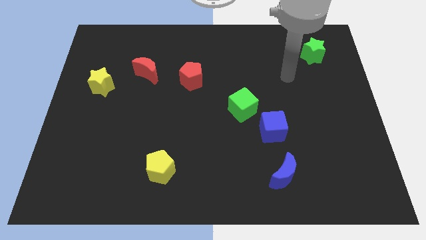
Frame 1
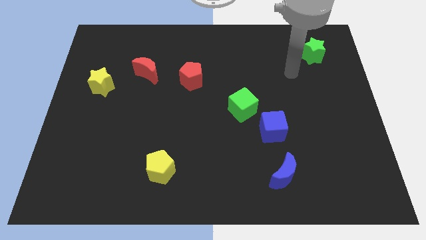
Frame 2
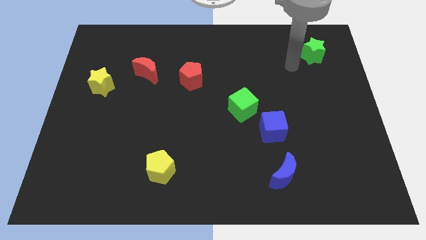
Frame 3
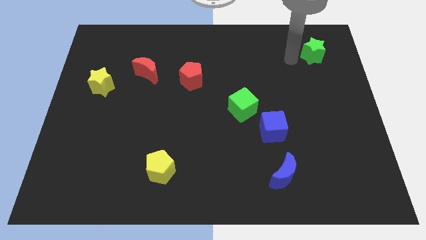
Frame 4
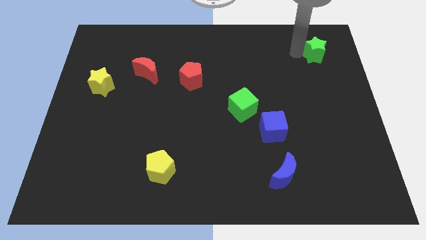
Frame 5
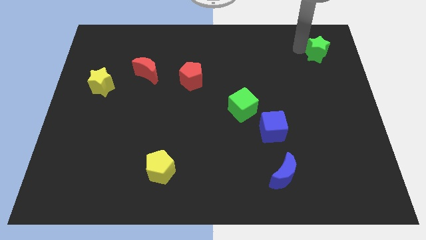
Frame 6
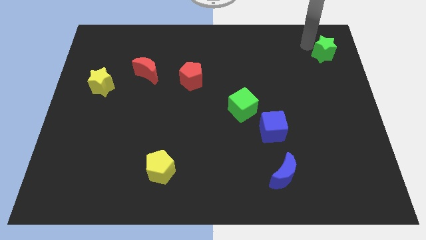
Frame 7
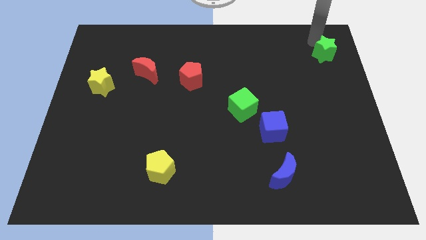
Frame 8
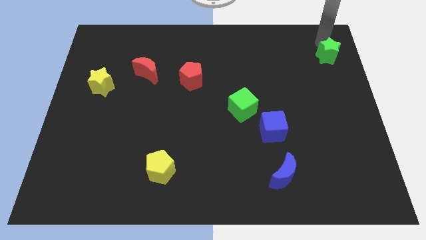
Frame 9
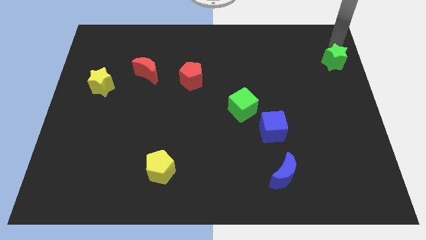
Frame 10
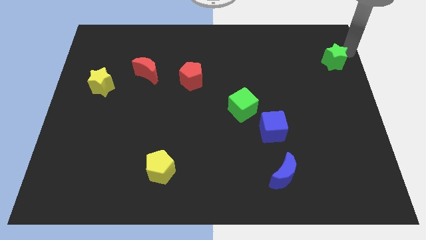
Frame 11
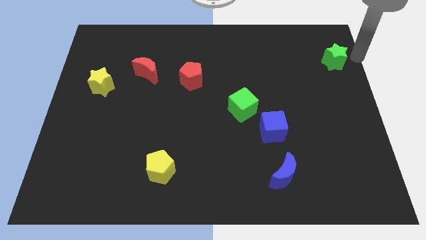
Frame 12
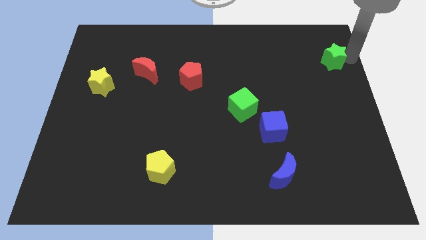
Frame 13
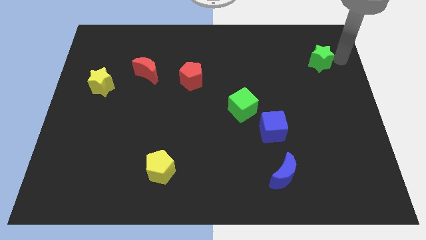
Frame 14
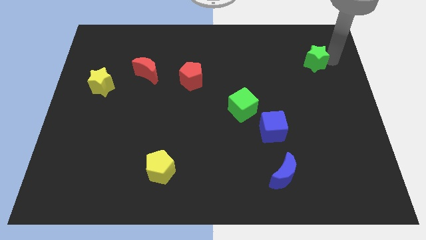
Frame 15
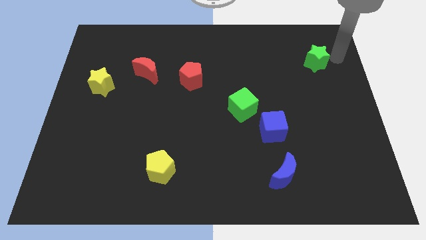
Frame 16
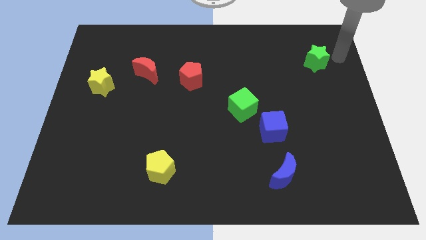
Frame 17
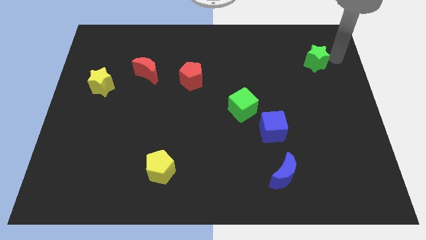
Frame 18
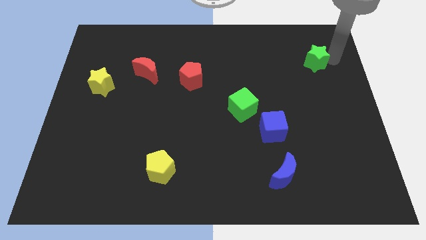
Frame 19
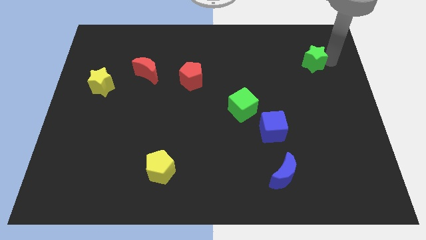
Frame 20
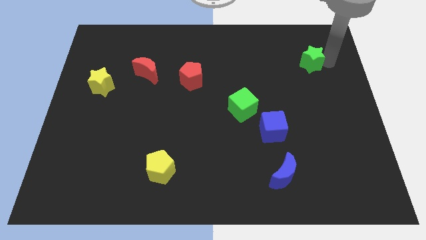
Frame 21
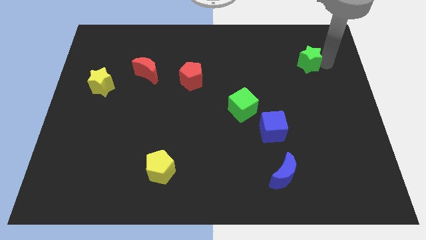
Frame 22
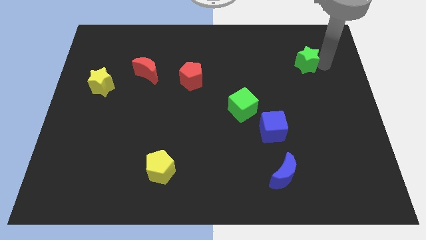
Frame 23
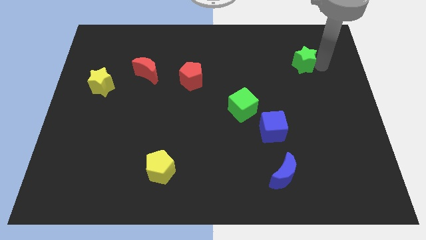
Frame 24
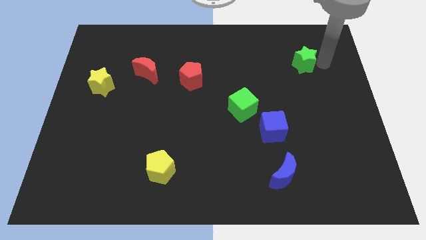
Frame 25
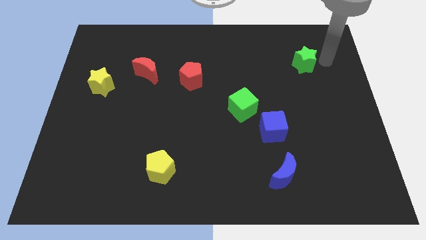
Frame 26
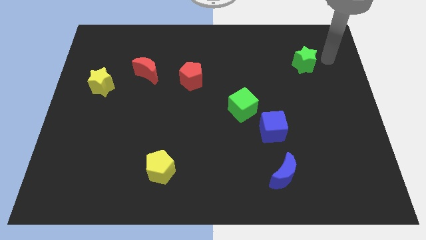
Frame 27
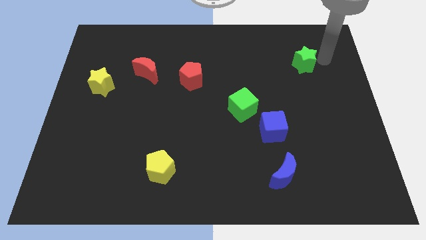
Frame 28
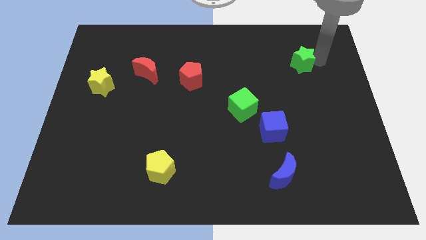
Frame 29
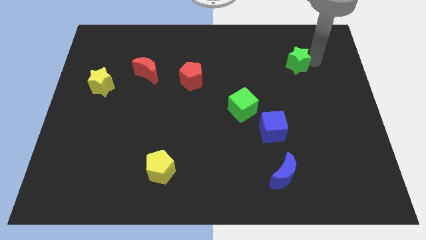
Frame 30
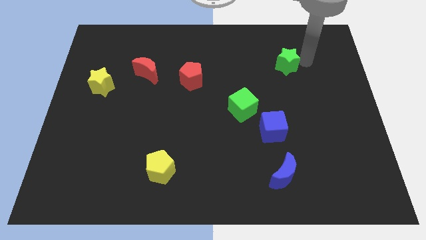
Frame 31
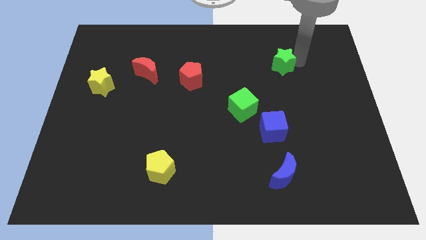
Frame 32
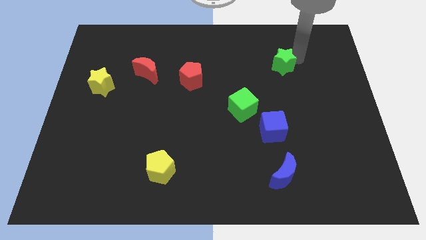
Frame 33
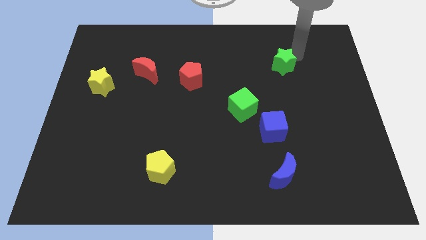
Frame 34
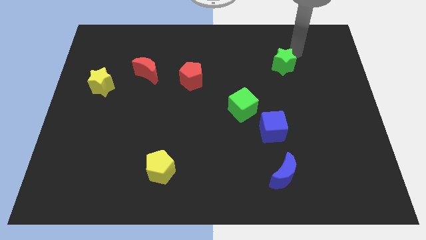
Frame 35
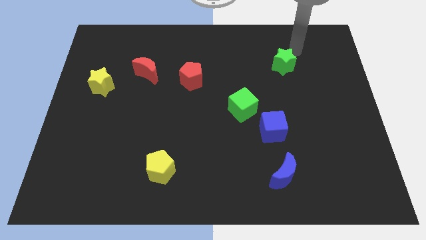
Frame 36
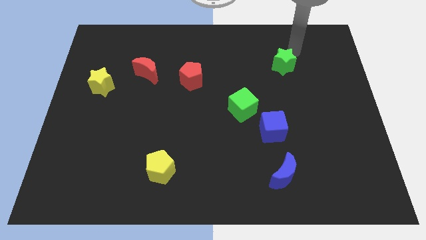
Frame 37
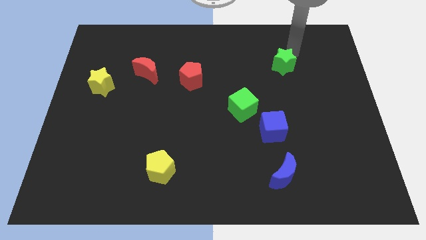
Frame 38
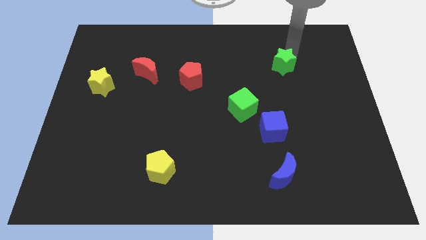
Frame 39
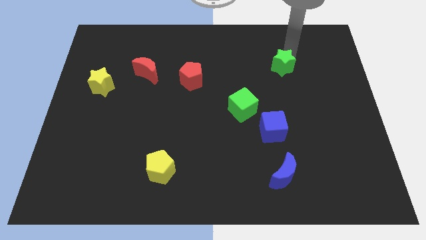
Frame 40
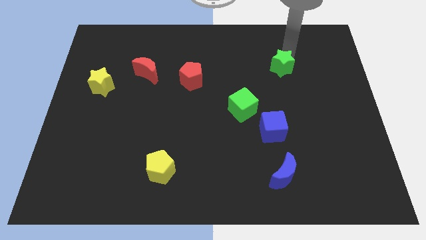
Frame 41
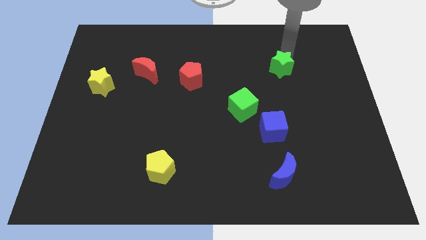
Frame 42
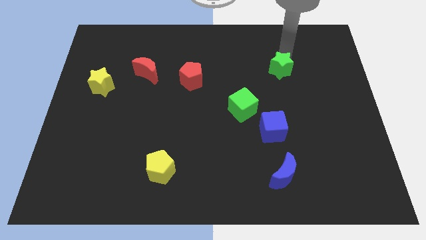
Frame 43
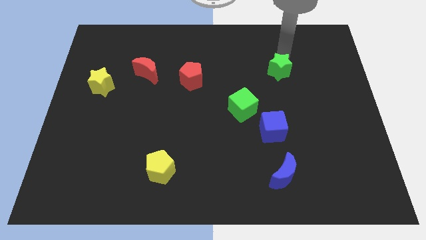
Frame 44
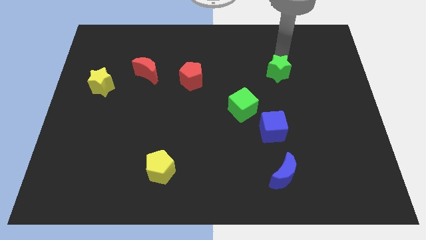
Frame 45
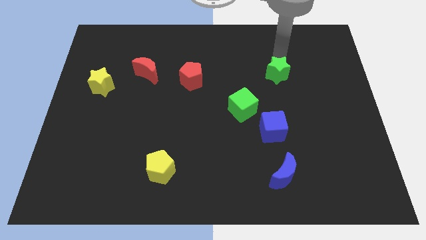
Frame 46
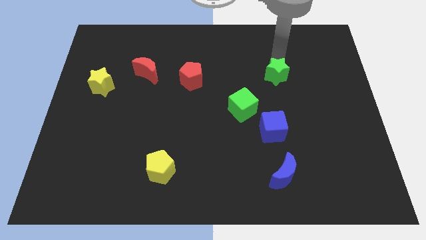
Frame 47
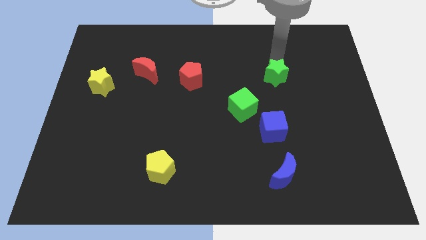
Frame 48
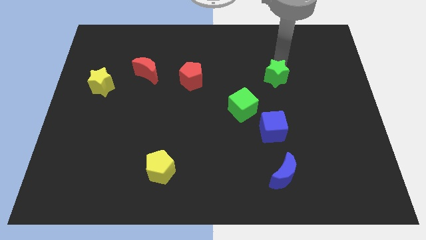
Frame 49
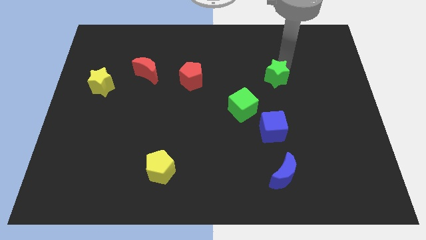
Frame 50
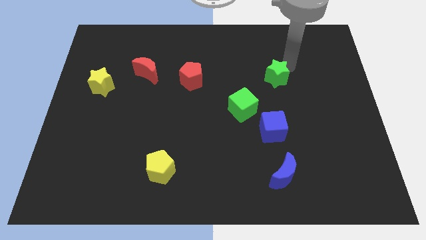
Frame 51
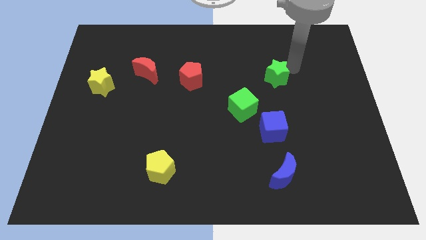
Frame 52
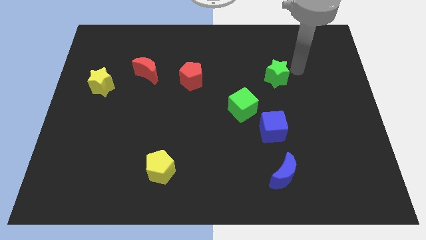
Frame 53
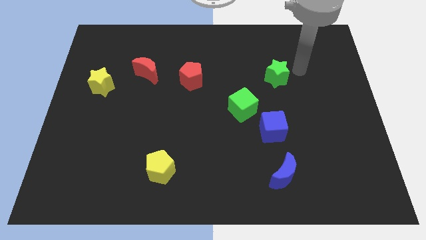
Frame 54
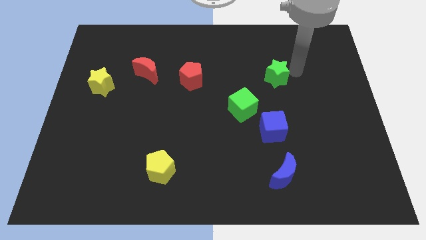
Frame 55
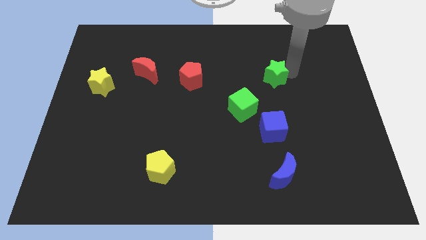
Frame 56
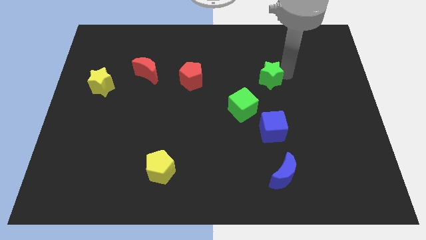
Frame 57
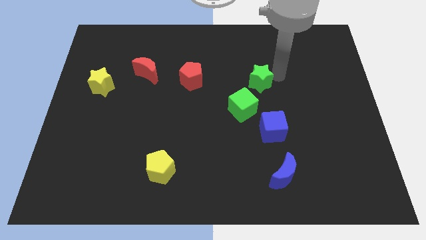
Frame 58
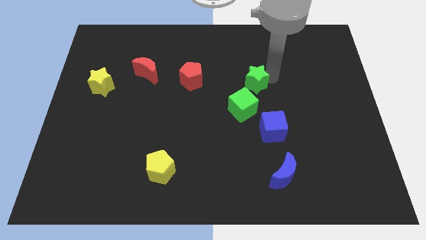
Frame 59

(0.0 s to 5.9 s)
push the green star to the middle

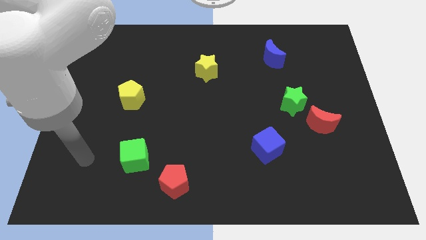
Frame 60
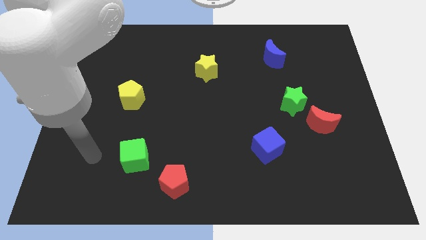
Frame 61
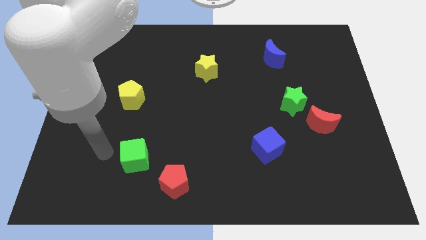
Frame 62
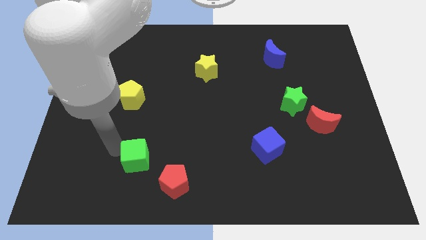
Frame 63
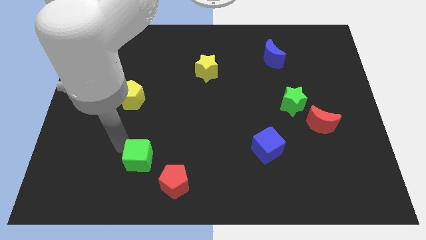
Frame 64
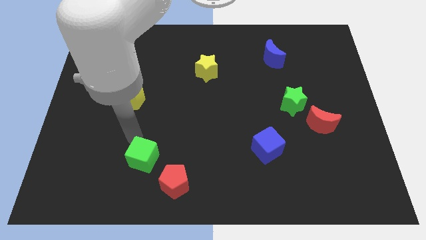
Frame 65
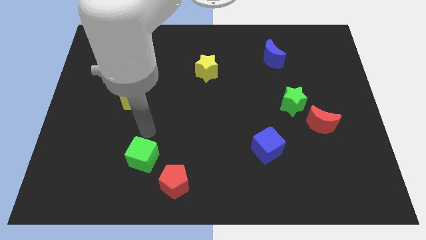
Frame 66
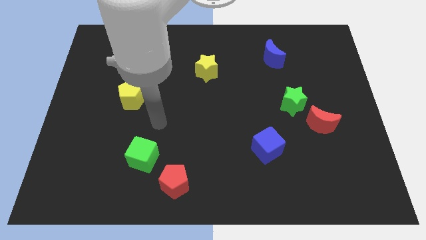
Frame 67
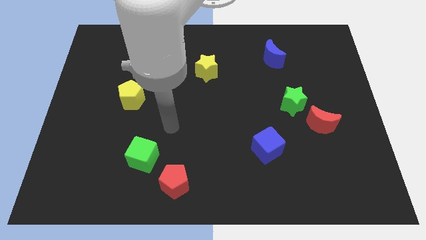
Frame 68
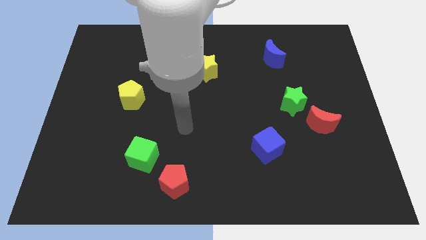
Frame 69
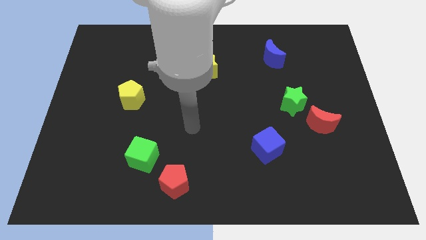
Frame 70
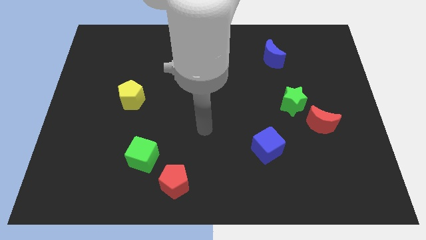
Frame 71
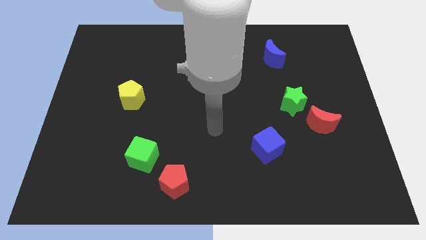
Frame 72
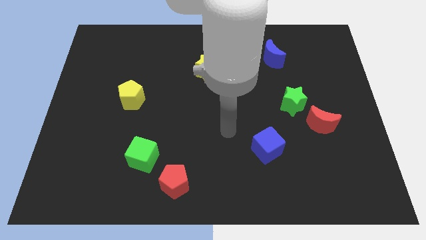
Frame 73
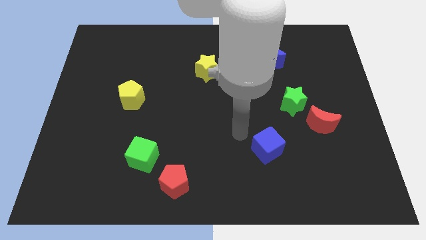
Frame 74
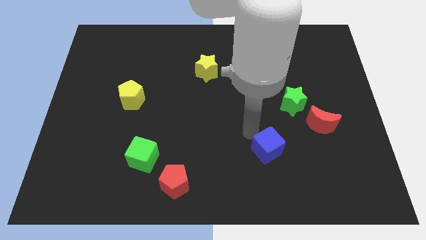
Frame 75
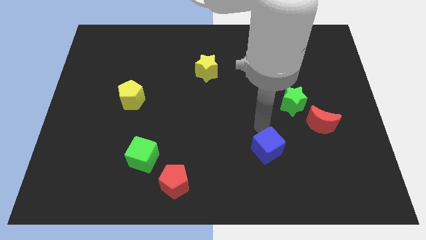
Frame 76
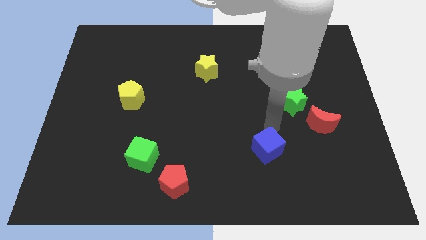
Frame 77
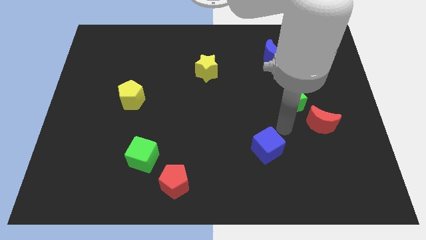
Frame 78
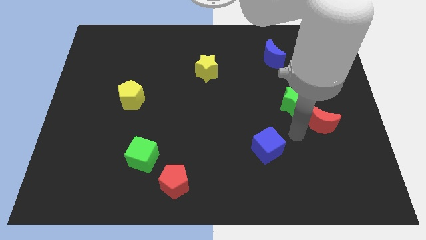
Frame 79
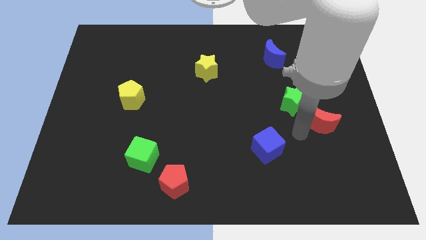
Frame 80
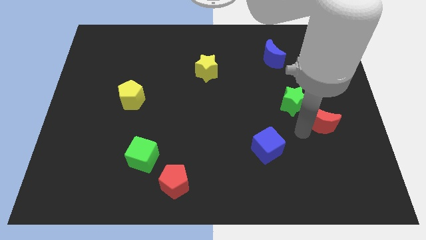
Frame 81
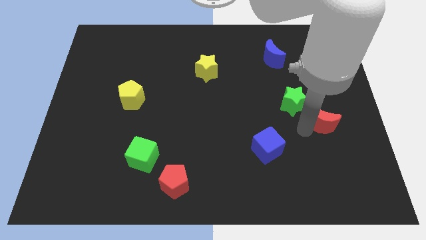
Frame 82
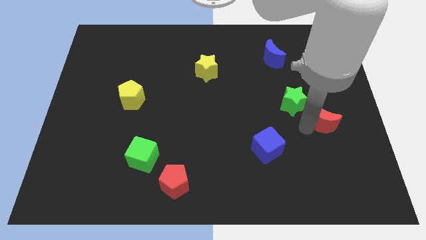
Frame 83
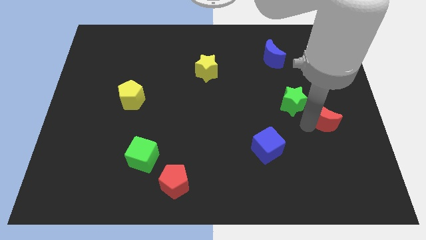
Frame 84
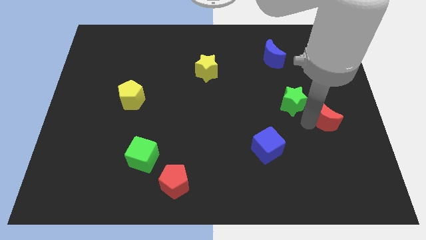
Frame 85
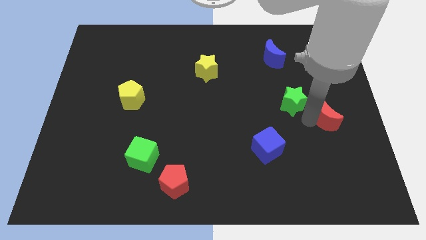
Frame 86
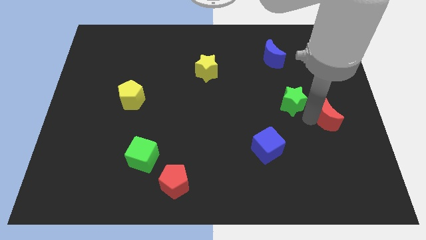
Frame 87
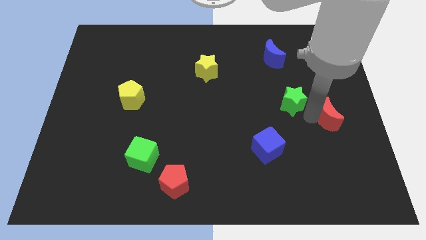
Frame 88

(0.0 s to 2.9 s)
put the red moon to the right side of the board
